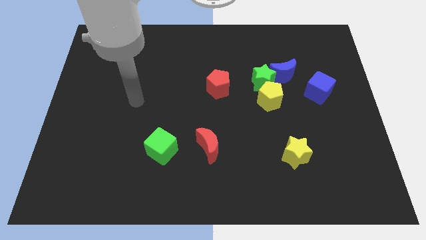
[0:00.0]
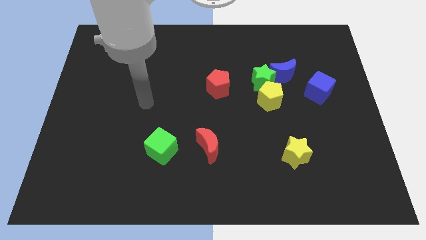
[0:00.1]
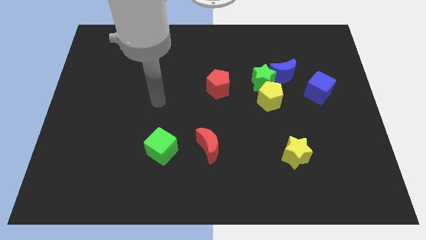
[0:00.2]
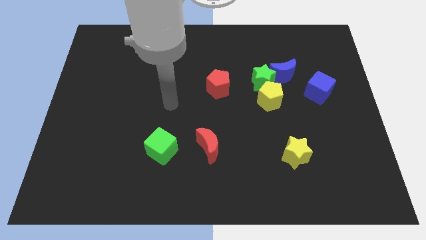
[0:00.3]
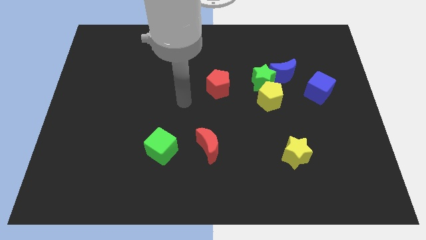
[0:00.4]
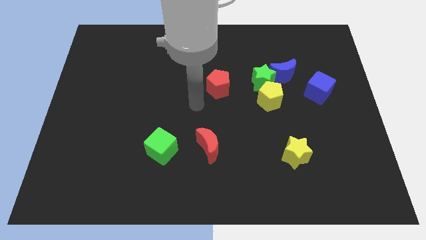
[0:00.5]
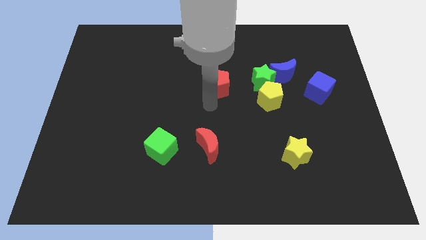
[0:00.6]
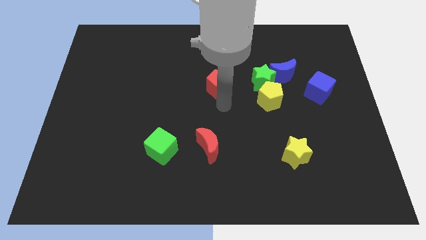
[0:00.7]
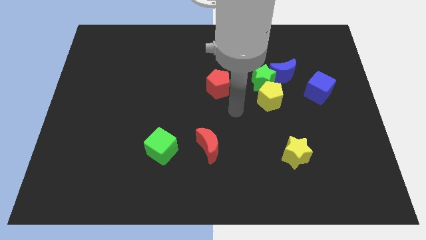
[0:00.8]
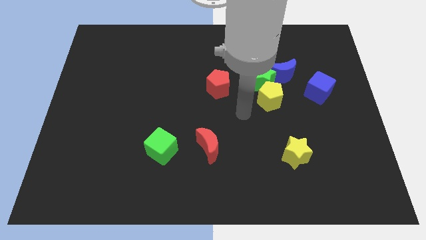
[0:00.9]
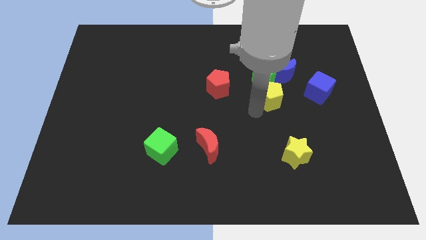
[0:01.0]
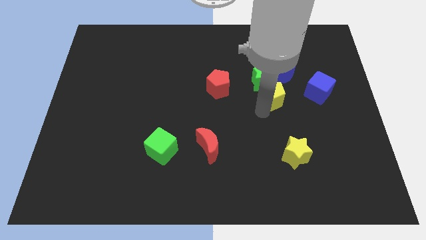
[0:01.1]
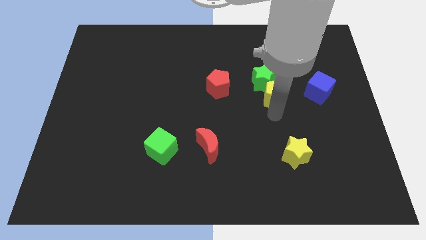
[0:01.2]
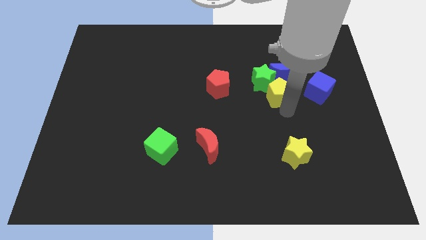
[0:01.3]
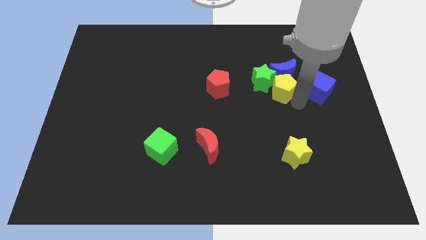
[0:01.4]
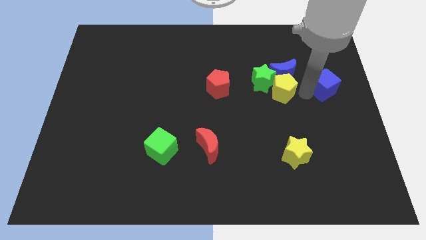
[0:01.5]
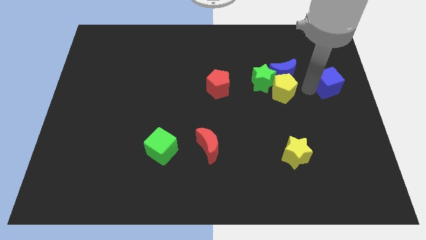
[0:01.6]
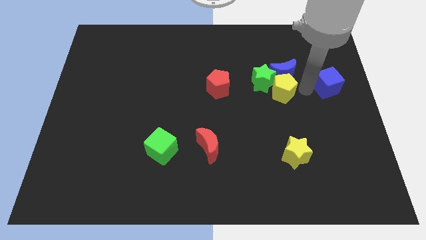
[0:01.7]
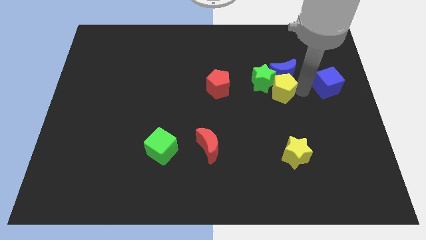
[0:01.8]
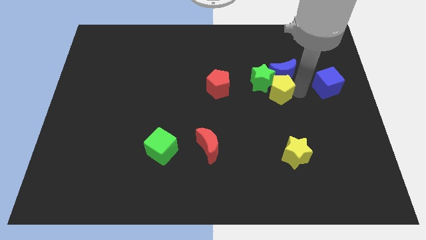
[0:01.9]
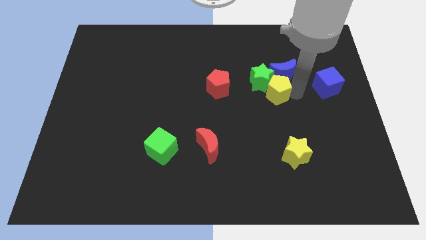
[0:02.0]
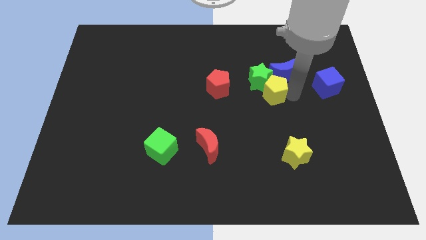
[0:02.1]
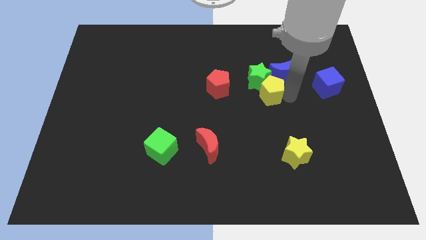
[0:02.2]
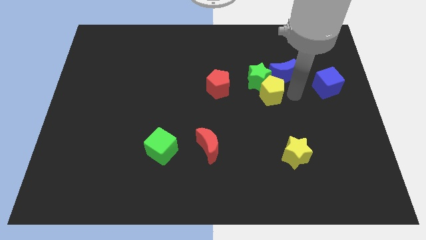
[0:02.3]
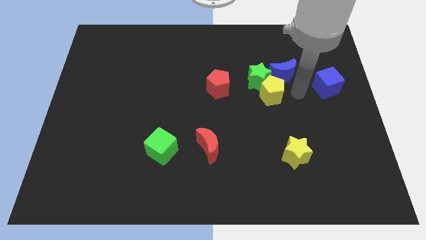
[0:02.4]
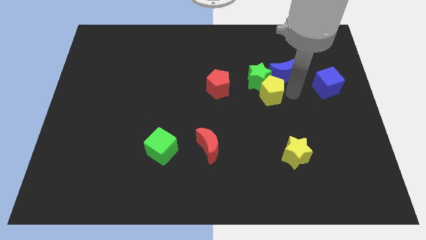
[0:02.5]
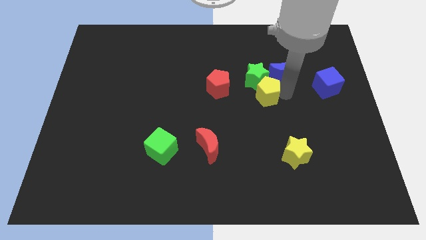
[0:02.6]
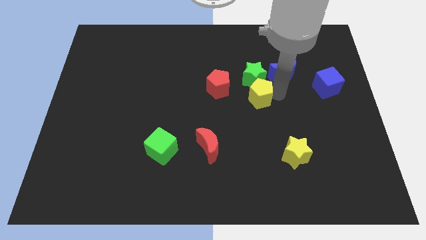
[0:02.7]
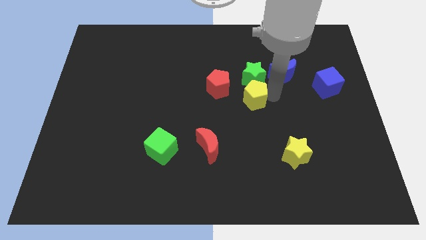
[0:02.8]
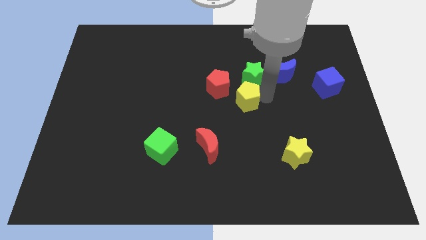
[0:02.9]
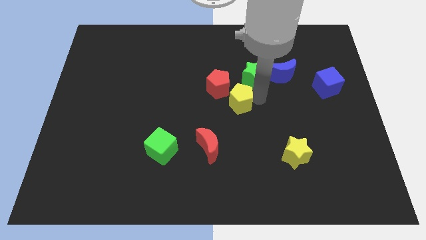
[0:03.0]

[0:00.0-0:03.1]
slightly move the yellow pentagon left

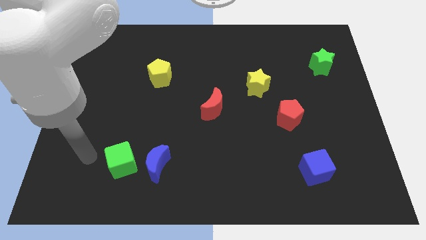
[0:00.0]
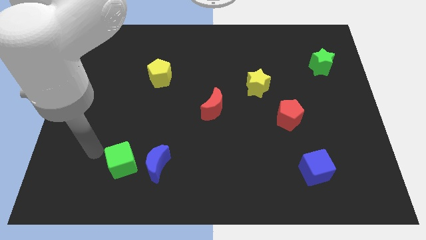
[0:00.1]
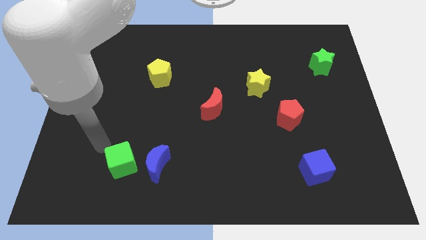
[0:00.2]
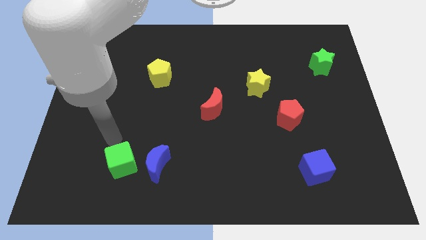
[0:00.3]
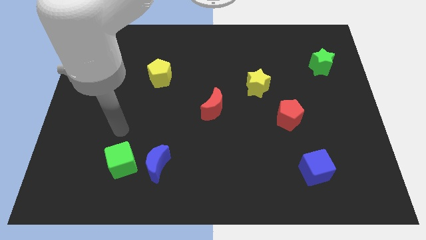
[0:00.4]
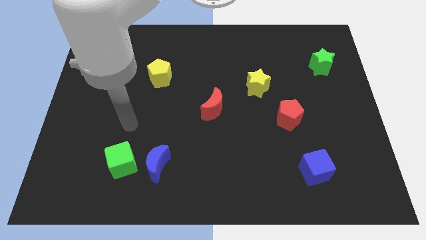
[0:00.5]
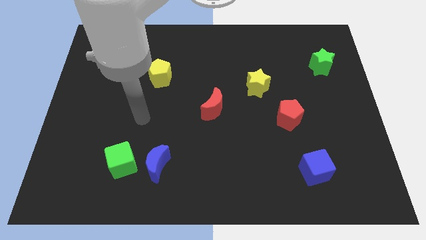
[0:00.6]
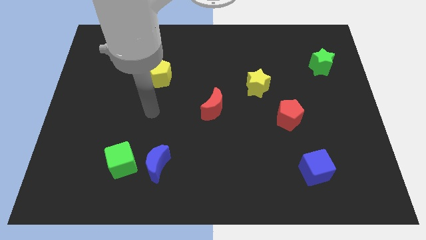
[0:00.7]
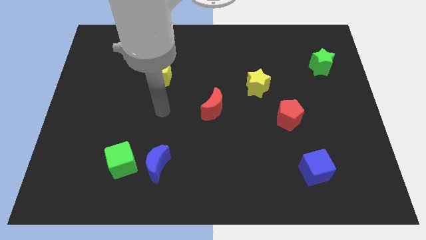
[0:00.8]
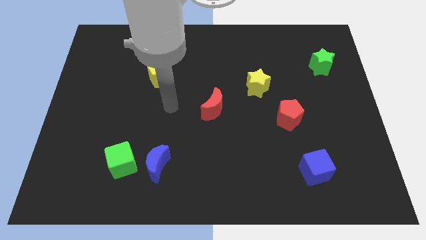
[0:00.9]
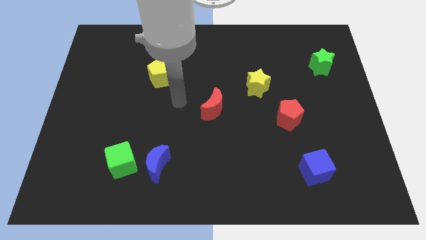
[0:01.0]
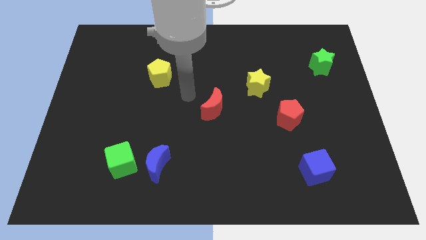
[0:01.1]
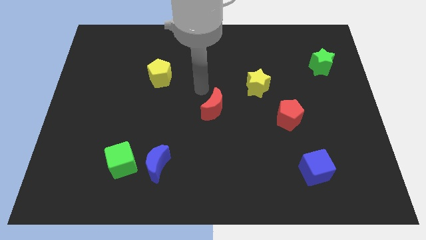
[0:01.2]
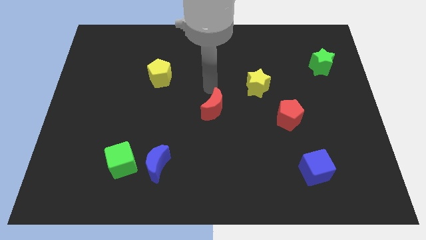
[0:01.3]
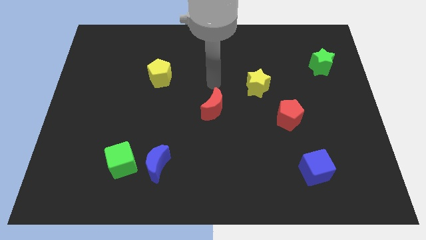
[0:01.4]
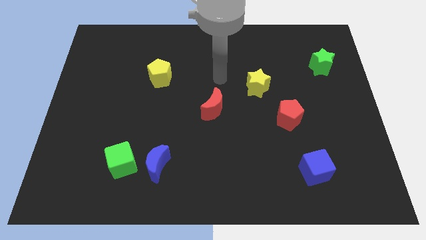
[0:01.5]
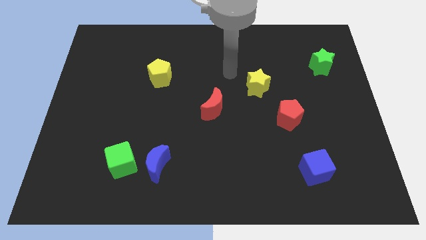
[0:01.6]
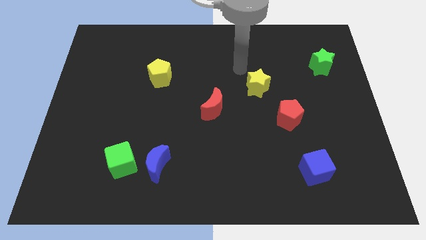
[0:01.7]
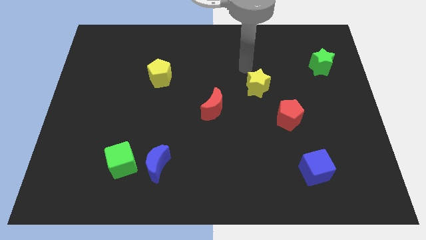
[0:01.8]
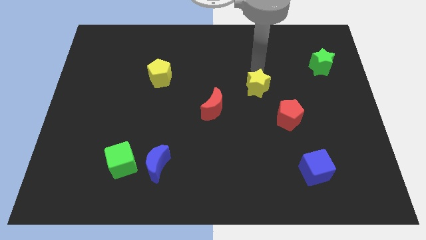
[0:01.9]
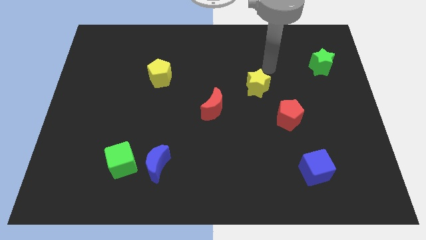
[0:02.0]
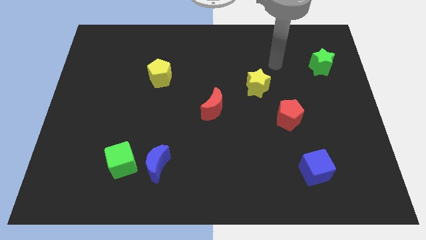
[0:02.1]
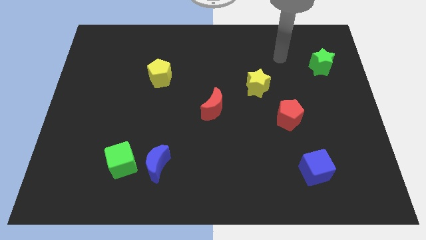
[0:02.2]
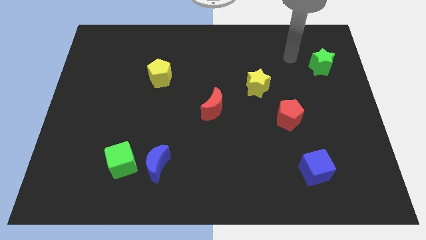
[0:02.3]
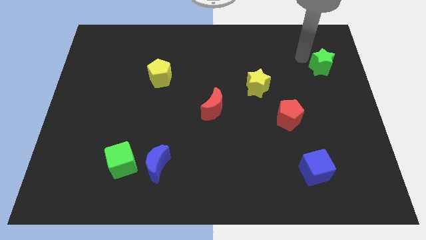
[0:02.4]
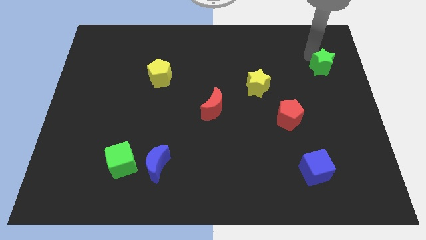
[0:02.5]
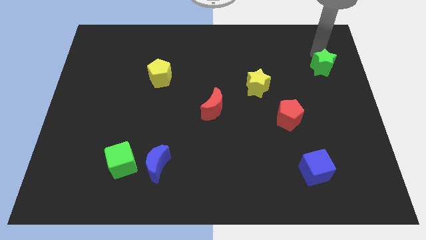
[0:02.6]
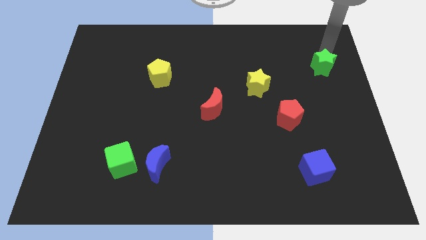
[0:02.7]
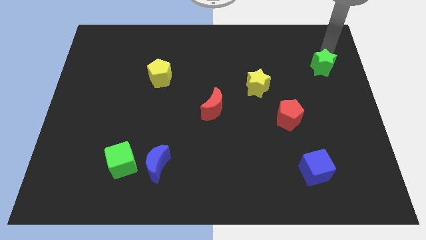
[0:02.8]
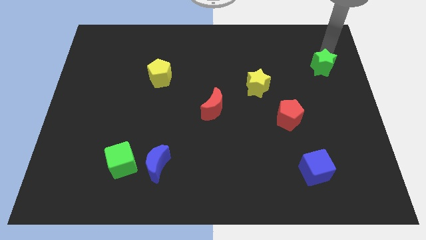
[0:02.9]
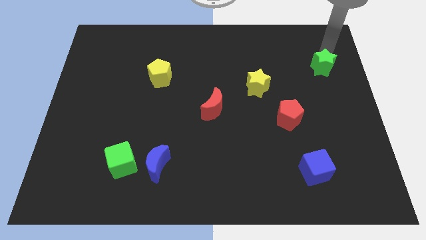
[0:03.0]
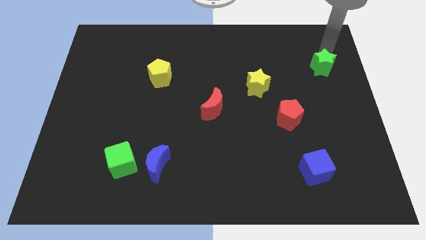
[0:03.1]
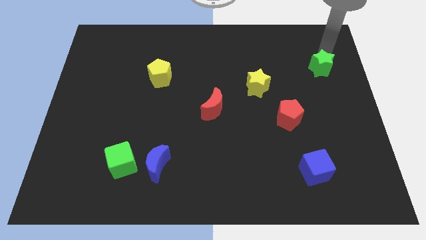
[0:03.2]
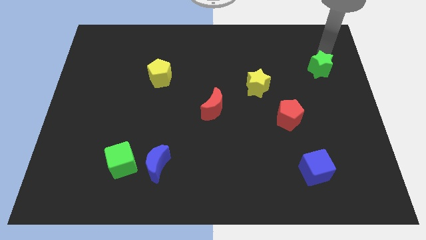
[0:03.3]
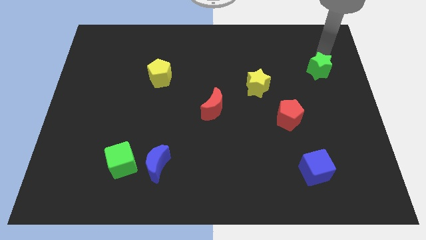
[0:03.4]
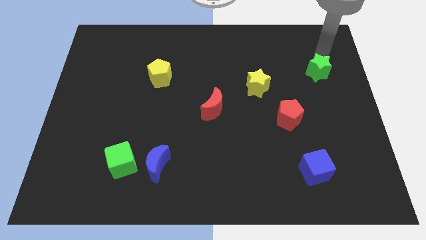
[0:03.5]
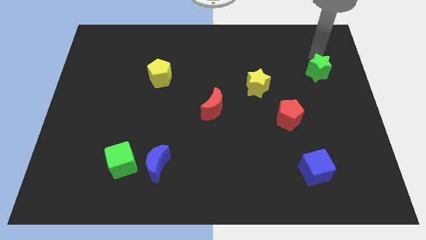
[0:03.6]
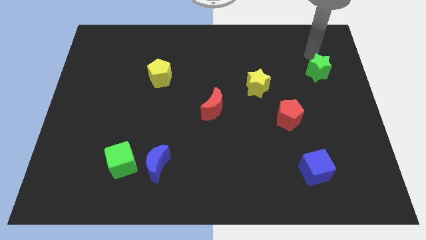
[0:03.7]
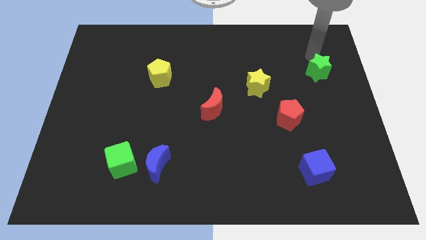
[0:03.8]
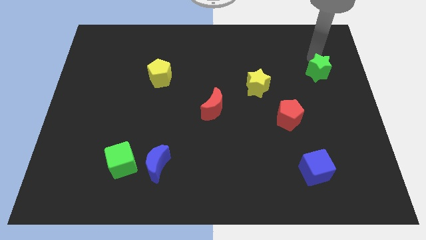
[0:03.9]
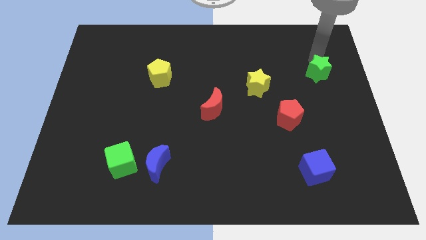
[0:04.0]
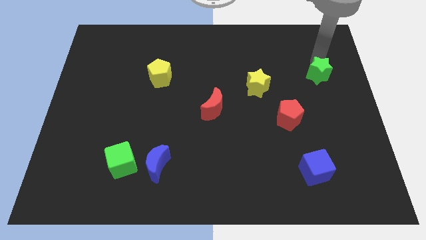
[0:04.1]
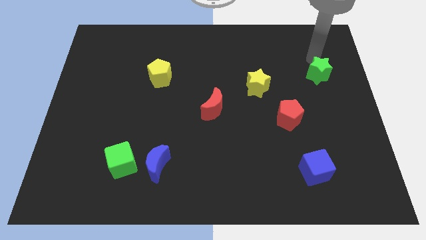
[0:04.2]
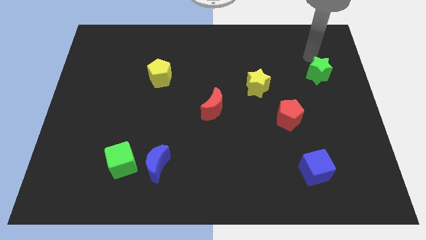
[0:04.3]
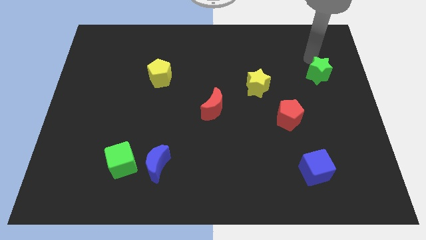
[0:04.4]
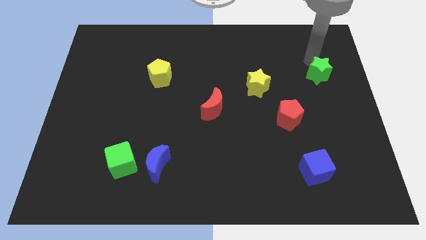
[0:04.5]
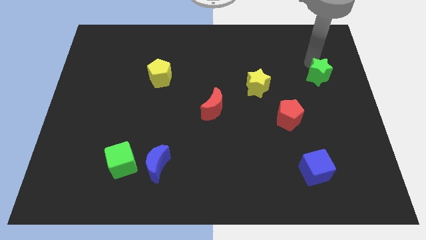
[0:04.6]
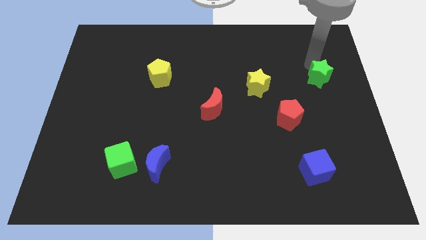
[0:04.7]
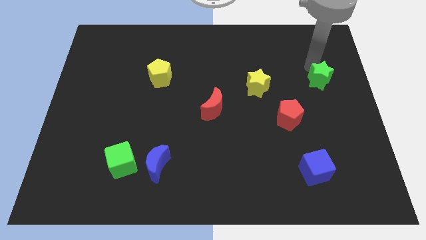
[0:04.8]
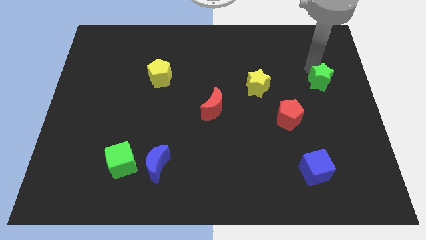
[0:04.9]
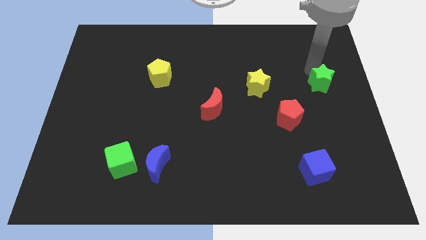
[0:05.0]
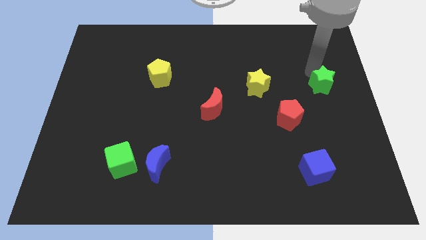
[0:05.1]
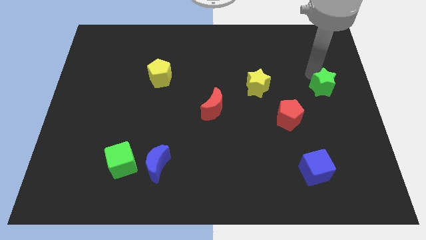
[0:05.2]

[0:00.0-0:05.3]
push the green star down a little
